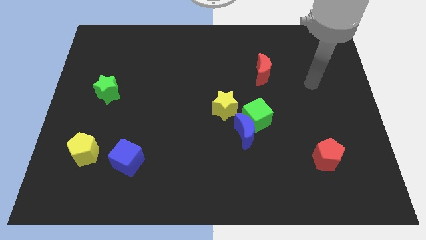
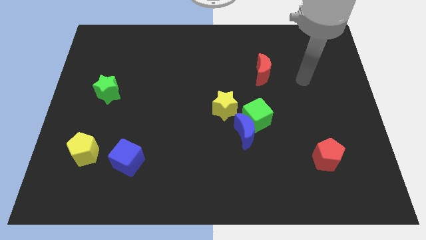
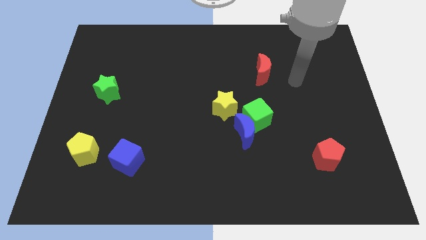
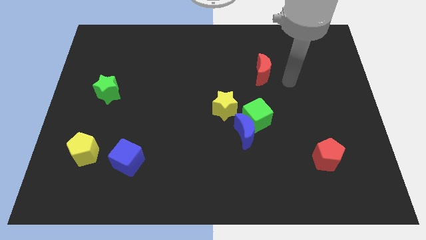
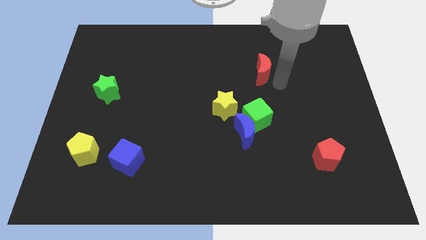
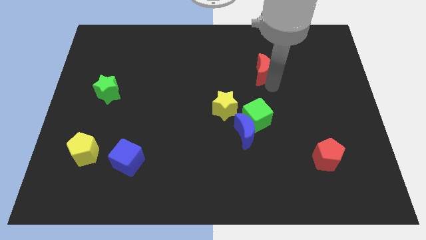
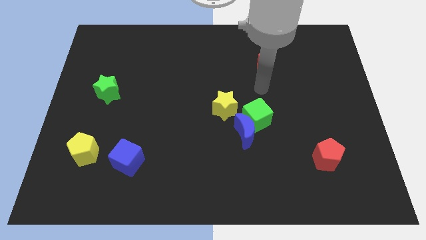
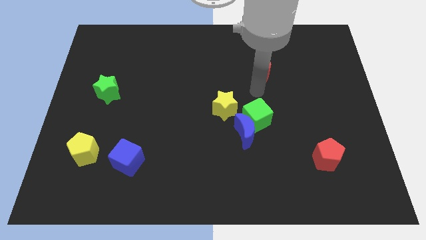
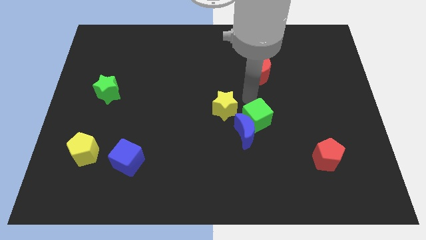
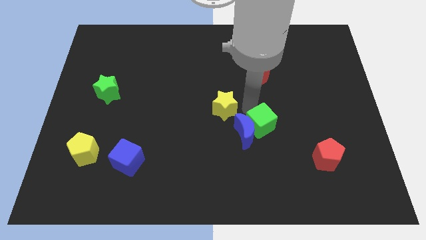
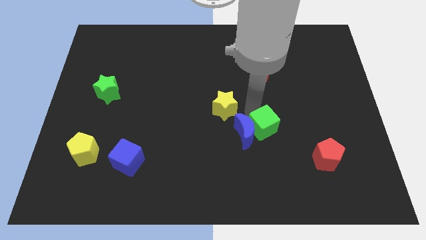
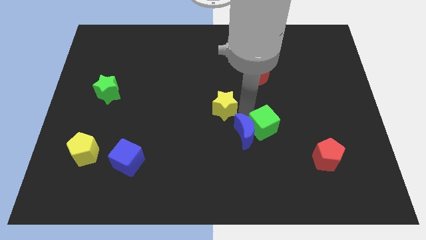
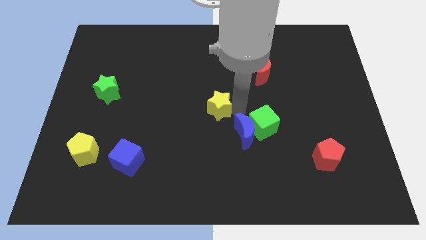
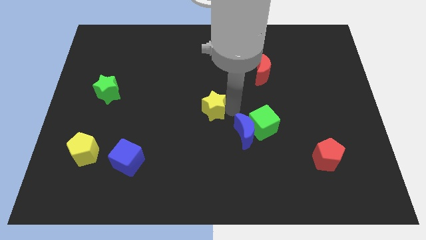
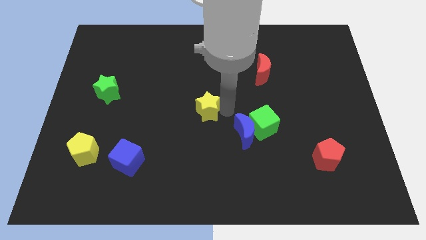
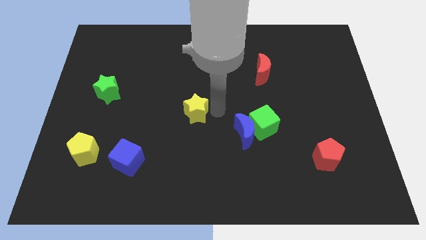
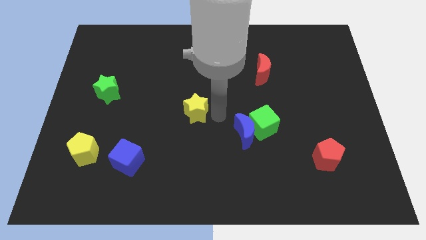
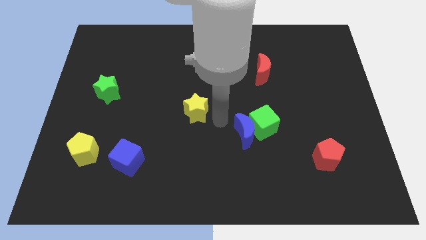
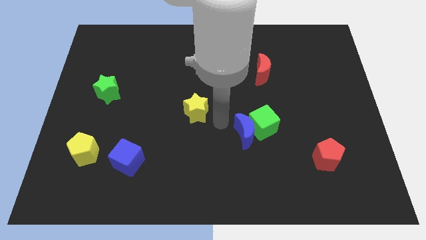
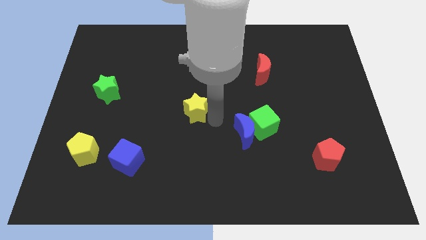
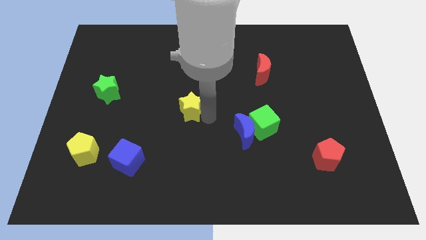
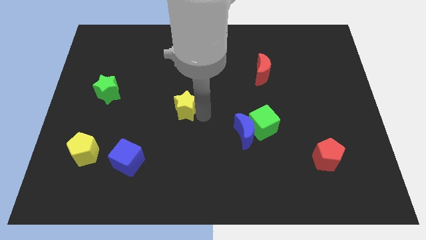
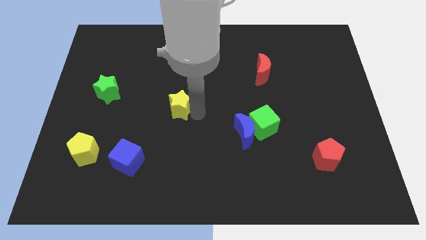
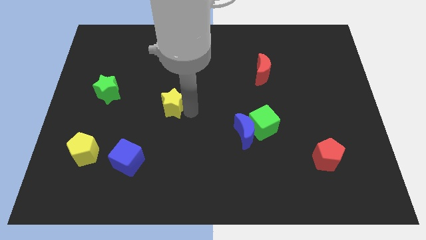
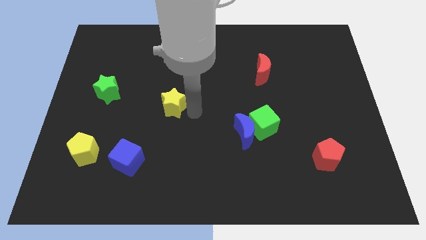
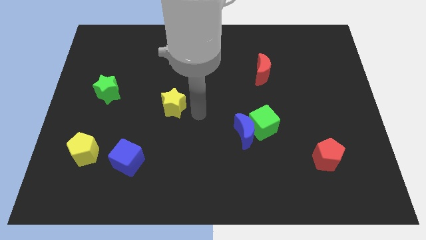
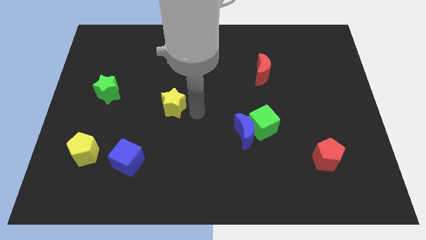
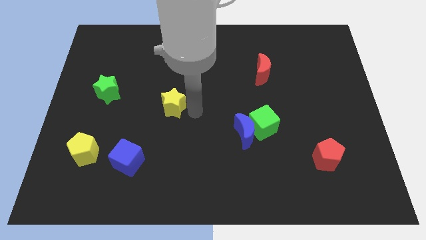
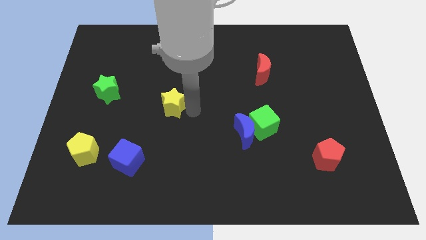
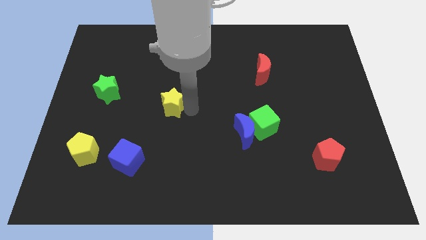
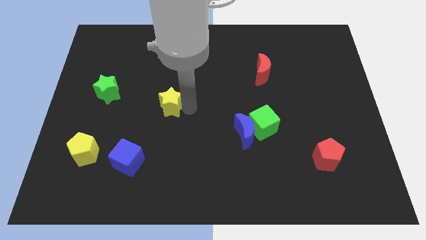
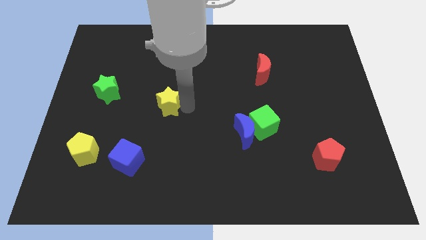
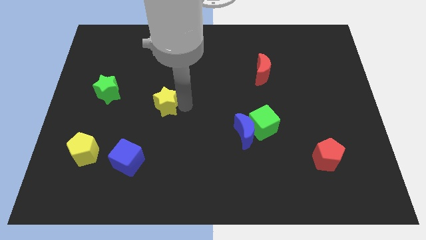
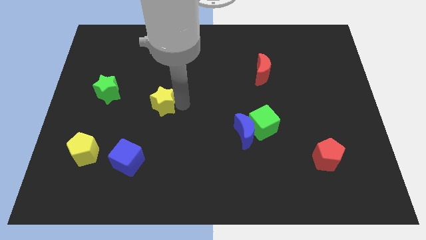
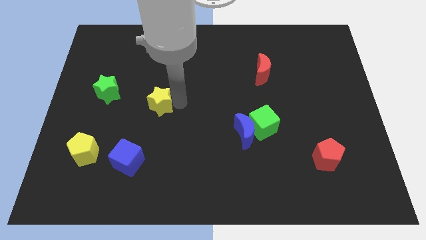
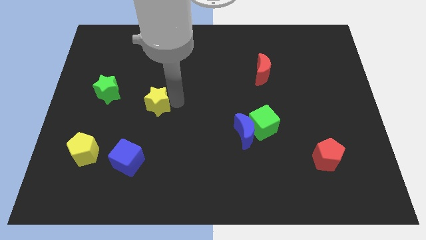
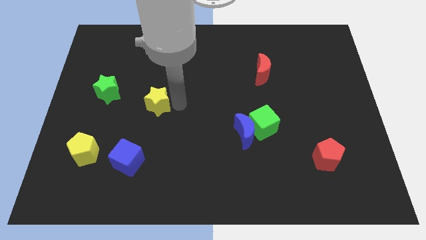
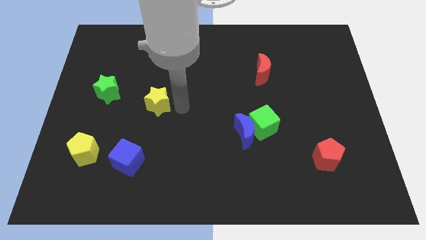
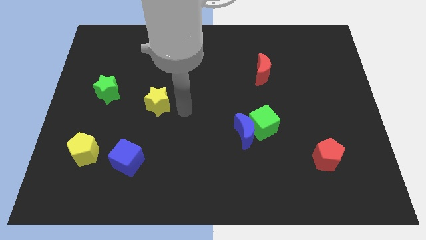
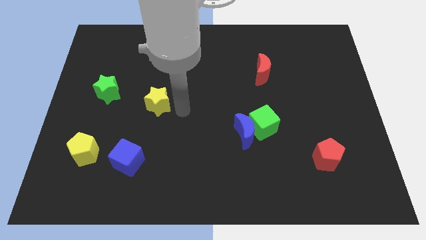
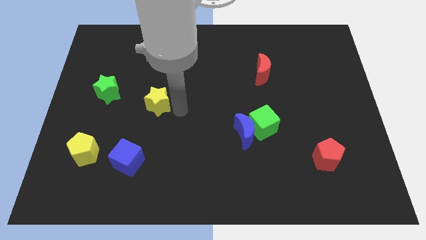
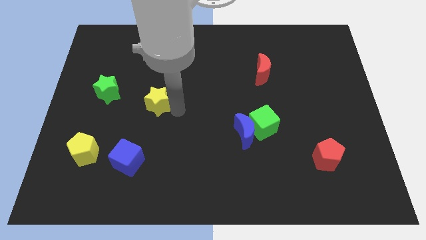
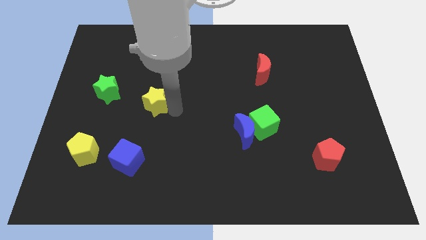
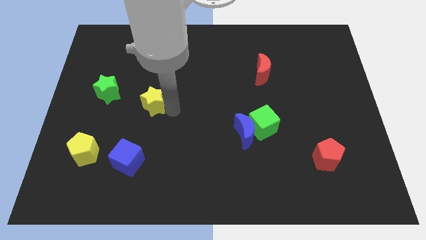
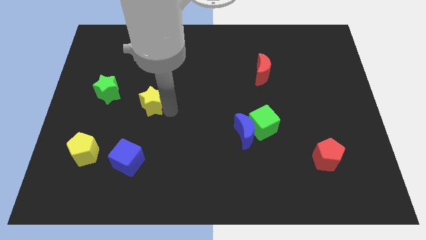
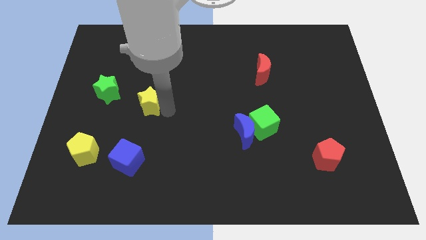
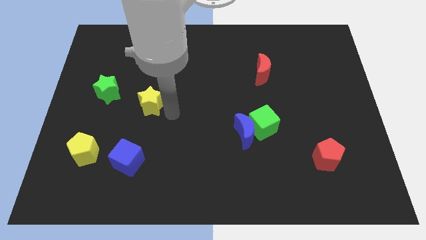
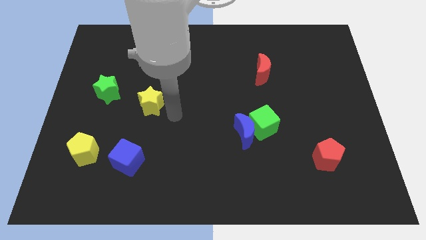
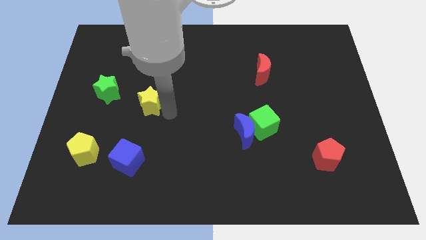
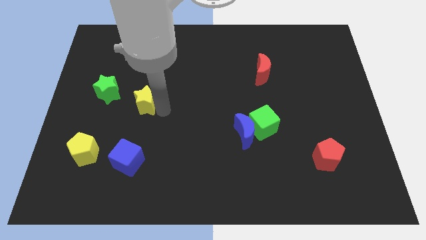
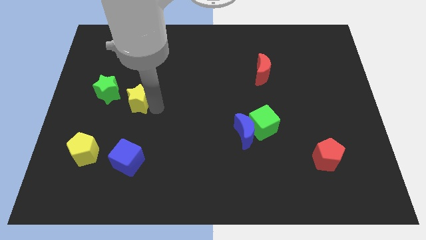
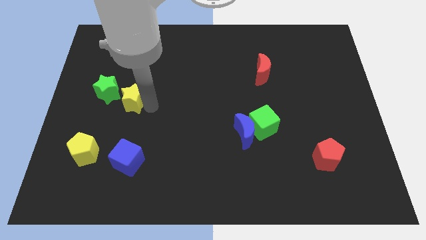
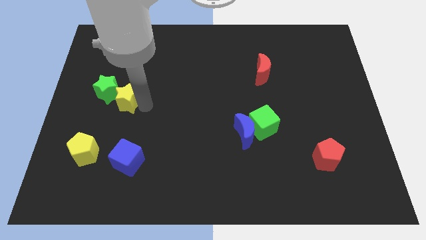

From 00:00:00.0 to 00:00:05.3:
slide the yellow star close to the green star

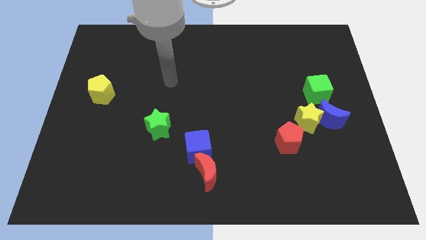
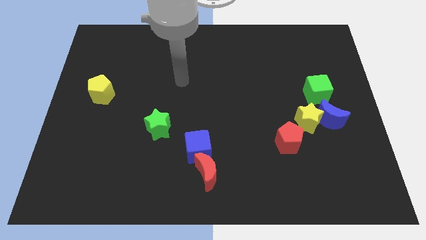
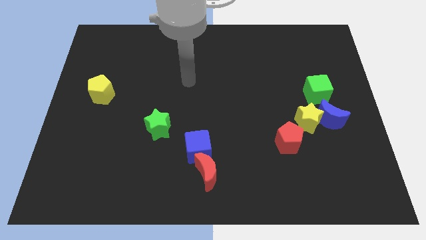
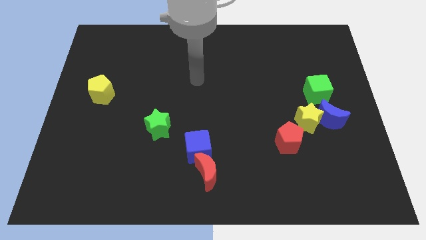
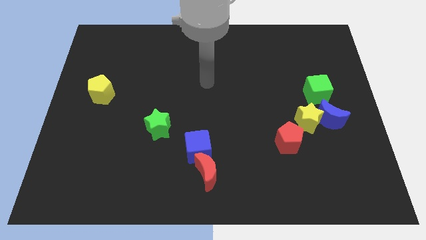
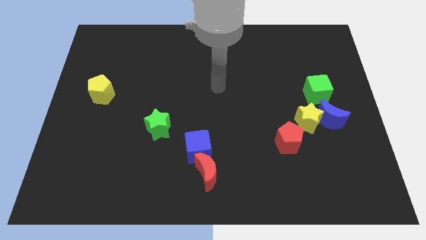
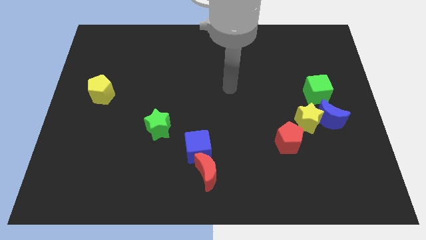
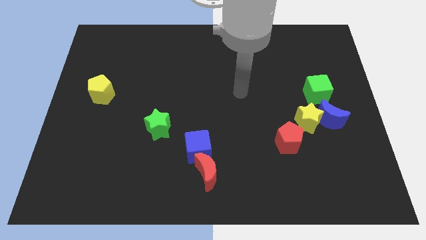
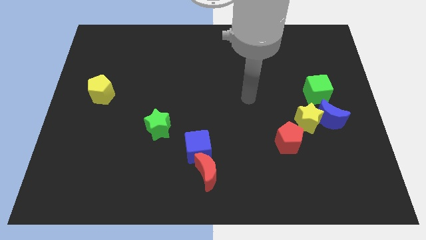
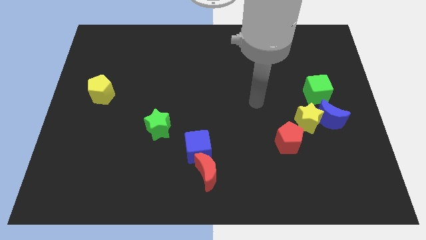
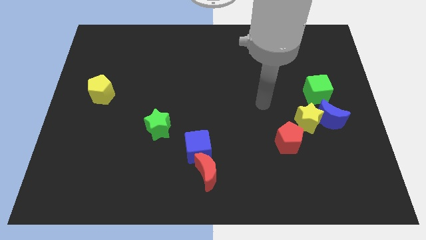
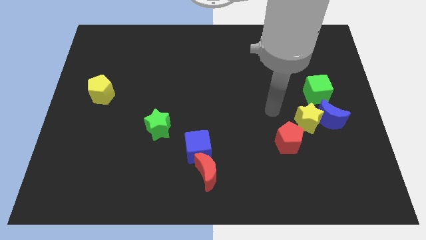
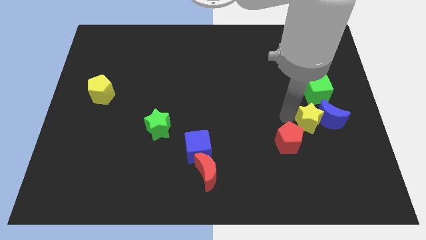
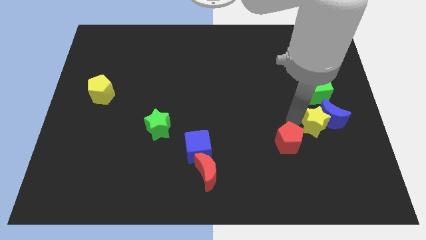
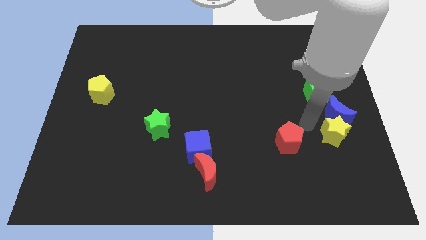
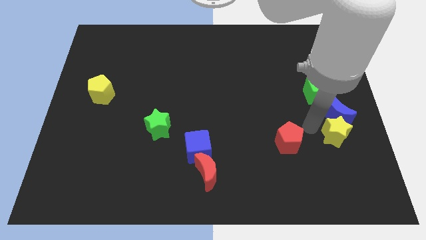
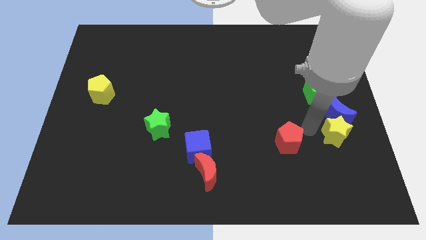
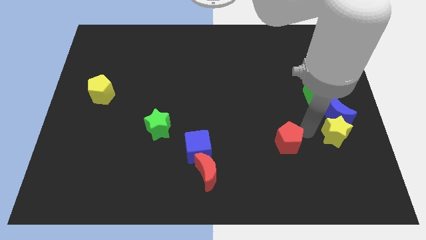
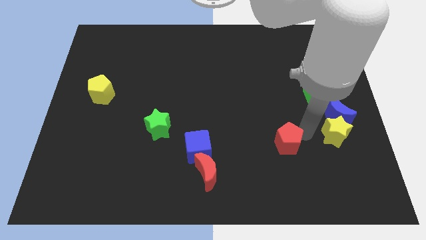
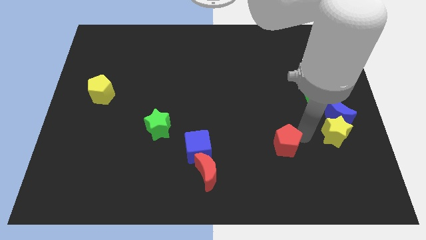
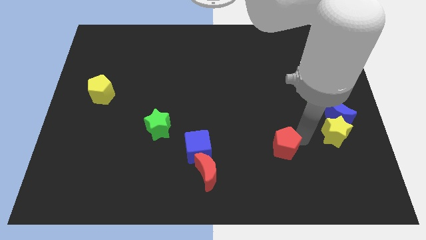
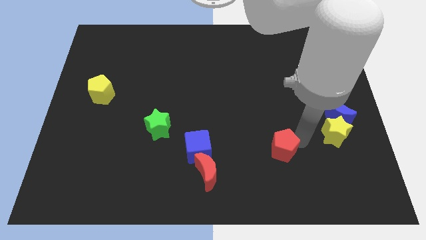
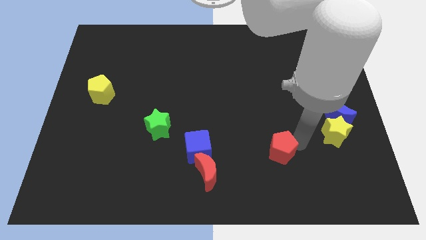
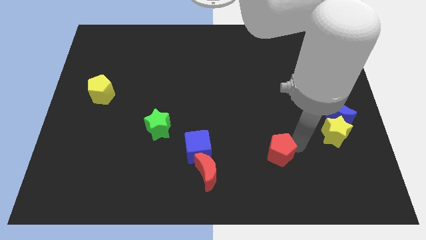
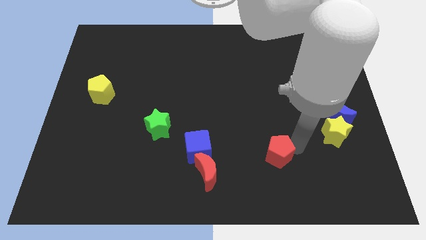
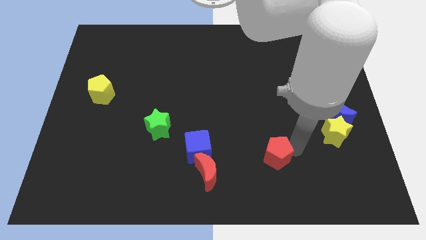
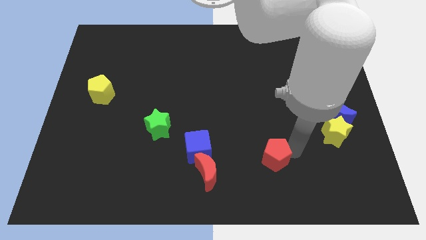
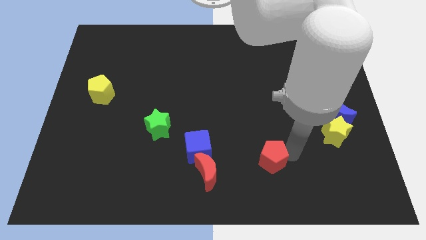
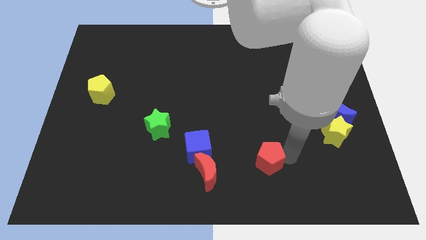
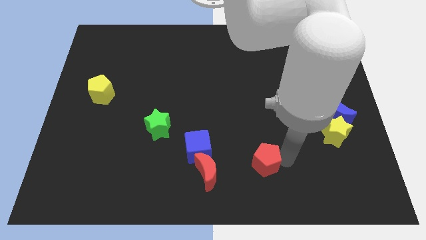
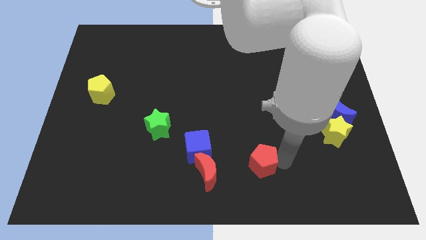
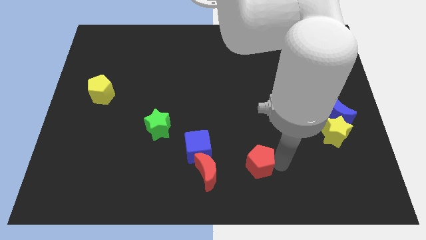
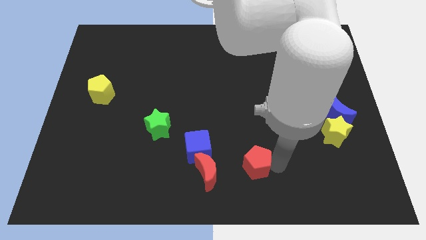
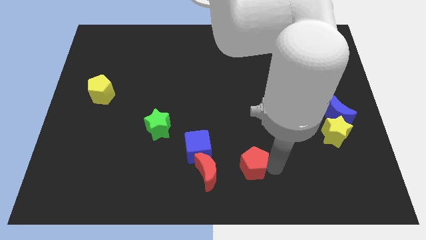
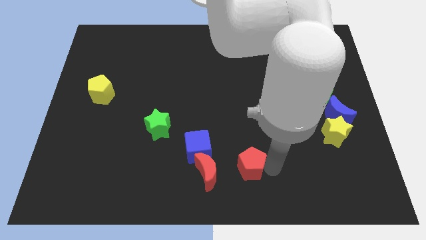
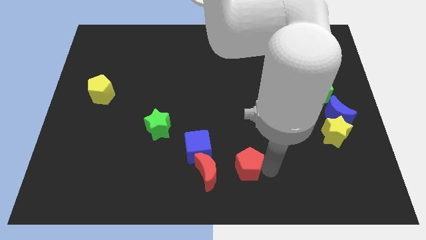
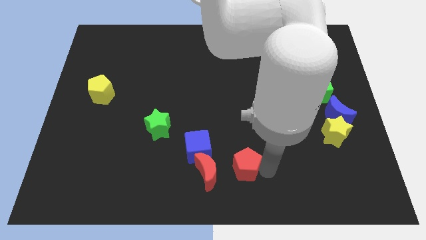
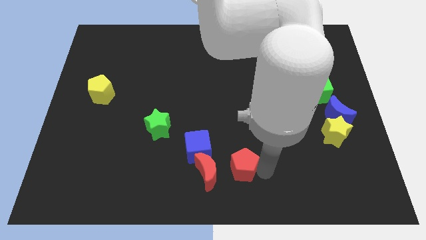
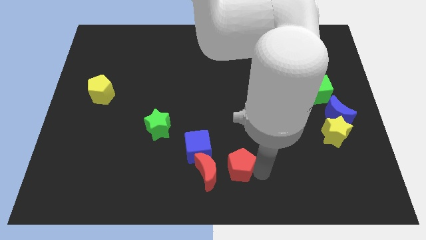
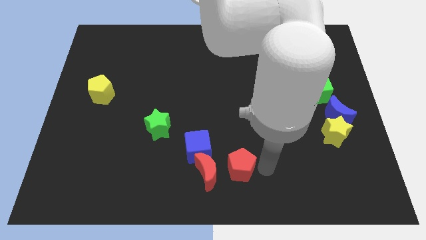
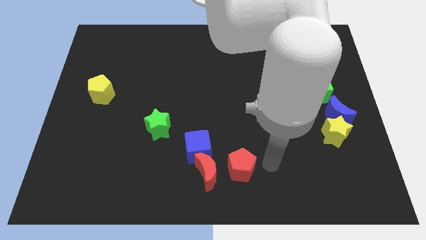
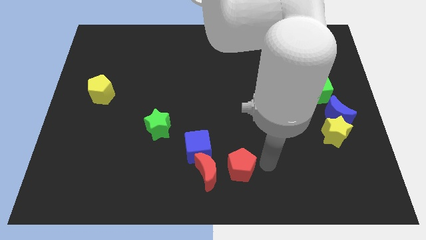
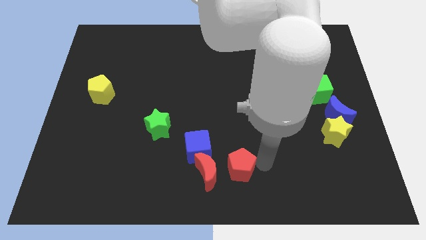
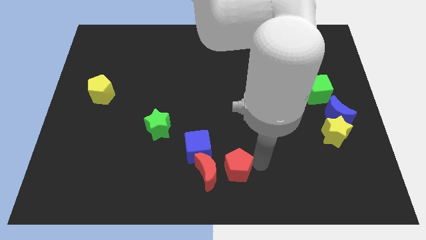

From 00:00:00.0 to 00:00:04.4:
move the red pentagon close to the red moon
